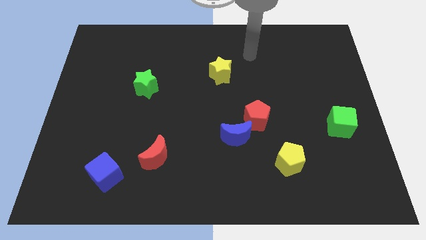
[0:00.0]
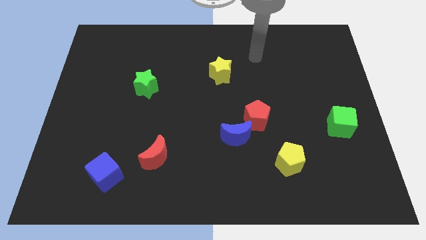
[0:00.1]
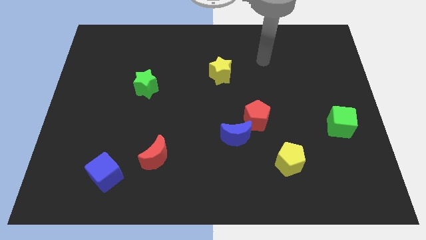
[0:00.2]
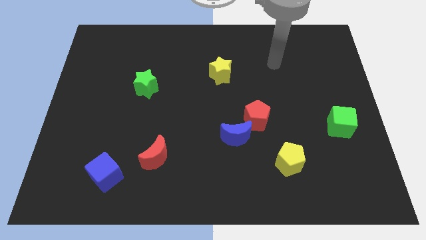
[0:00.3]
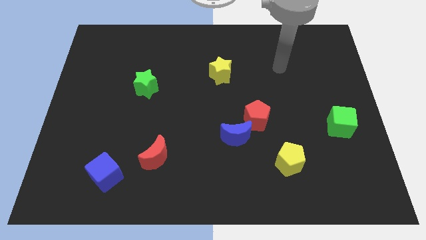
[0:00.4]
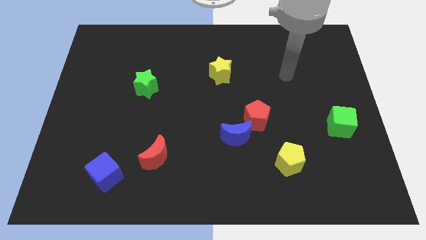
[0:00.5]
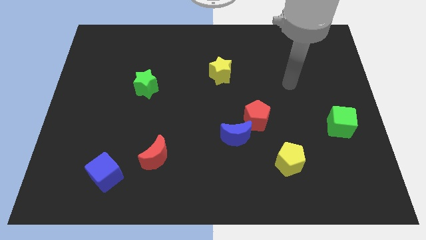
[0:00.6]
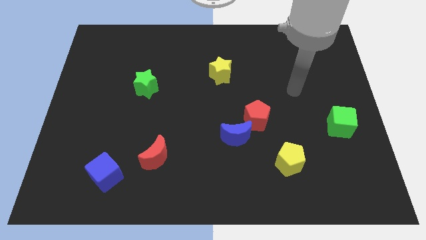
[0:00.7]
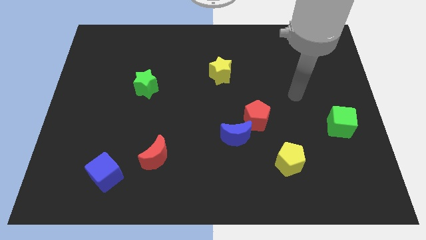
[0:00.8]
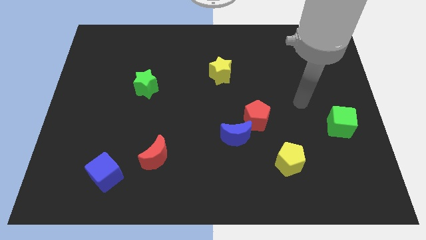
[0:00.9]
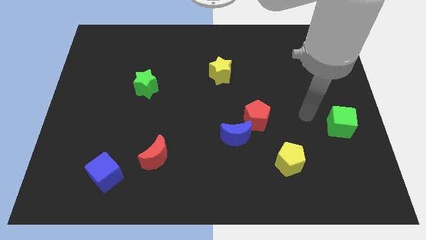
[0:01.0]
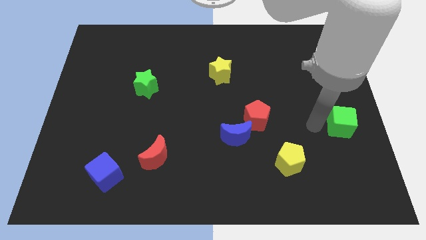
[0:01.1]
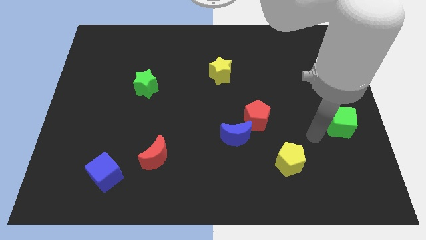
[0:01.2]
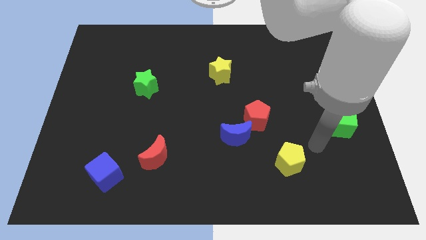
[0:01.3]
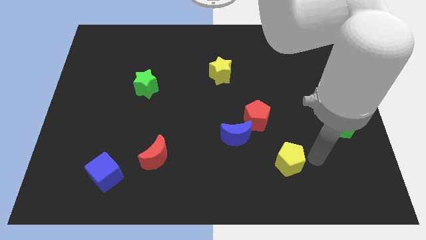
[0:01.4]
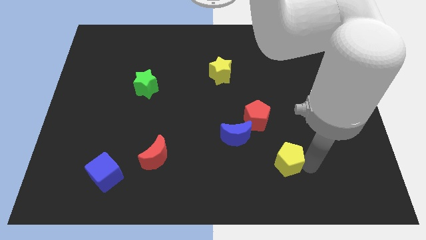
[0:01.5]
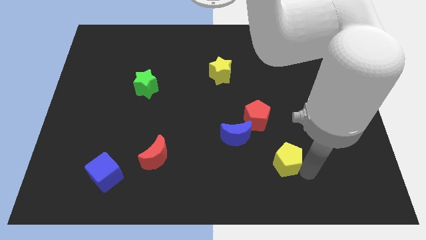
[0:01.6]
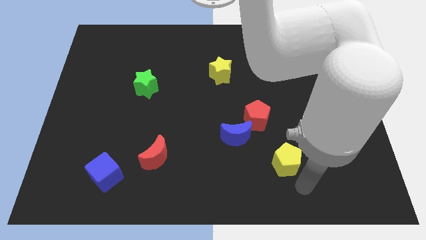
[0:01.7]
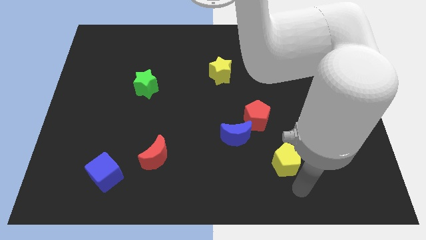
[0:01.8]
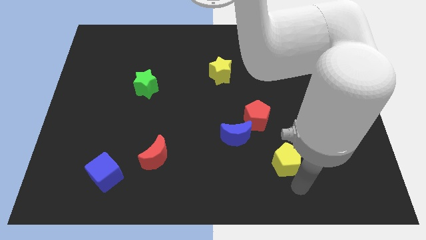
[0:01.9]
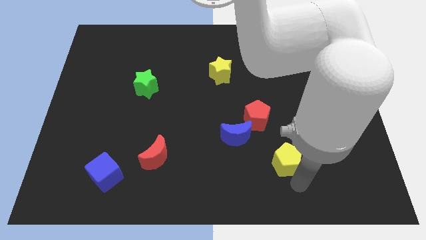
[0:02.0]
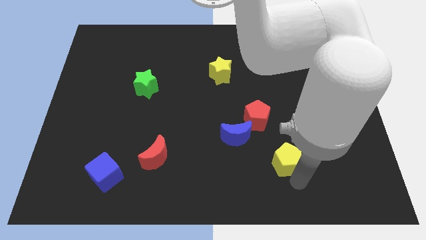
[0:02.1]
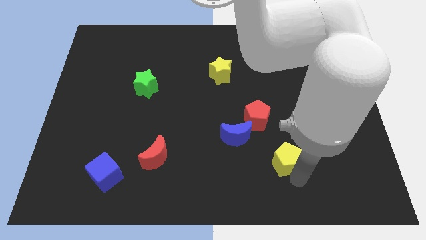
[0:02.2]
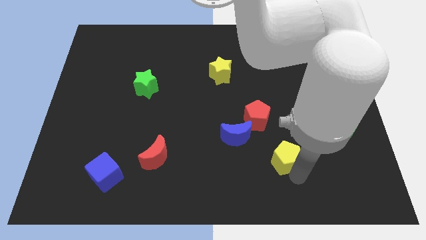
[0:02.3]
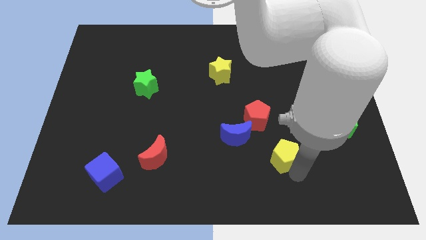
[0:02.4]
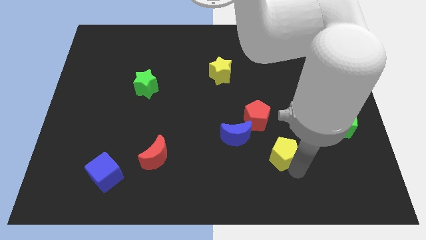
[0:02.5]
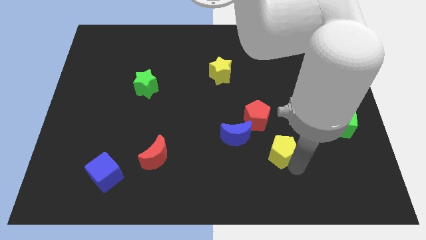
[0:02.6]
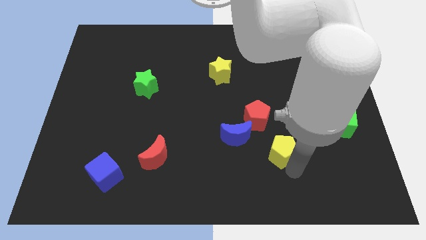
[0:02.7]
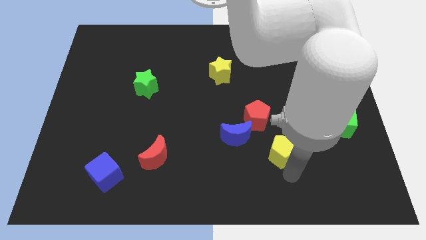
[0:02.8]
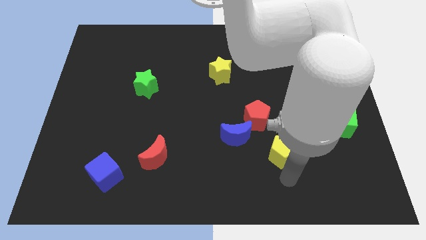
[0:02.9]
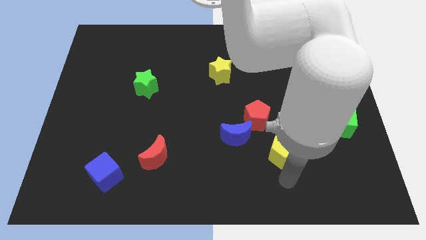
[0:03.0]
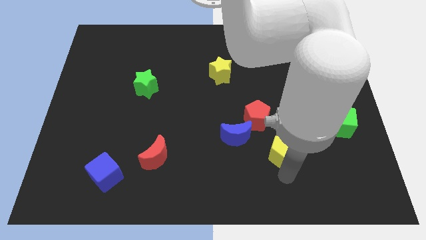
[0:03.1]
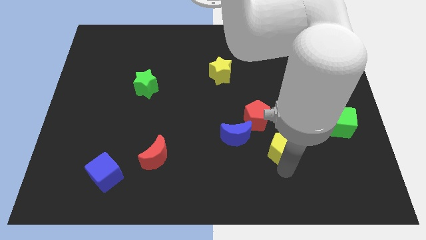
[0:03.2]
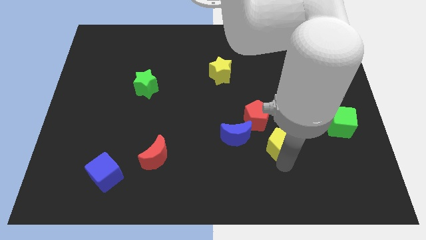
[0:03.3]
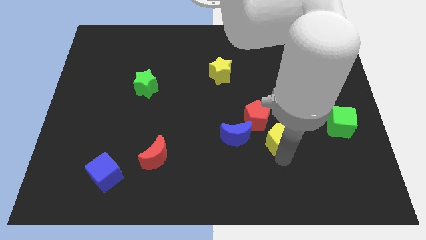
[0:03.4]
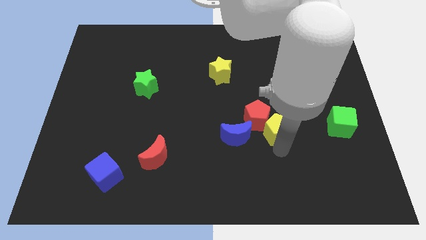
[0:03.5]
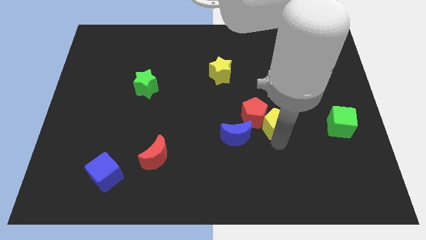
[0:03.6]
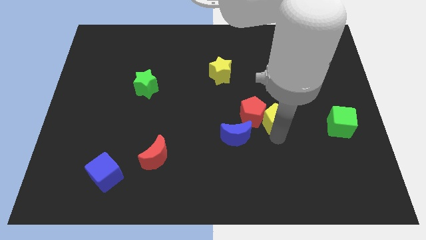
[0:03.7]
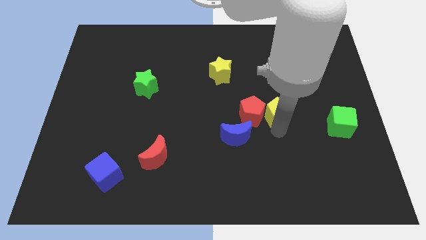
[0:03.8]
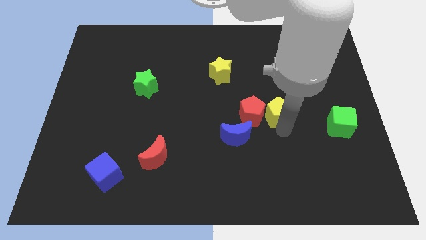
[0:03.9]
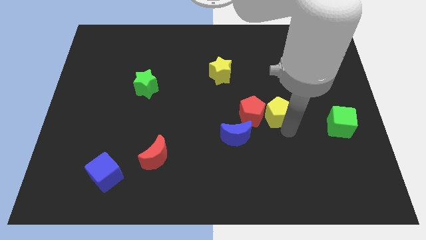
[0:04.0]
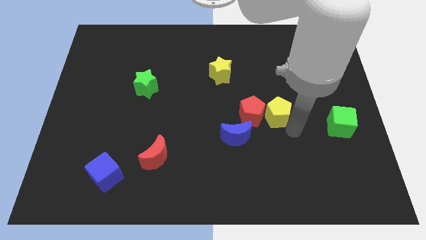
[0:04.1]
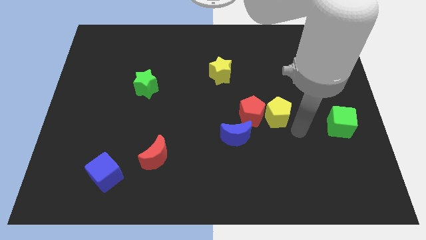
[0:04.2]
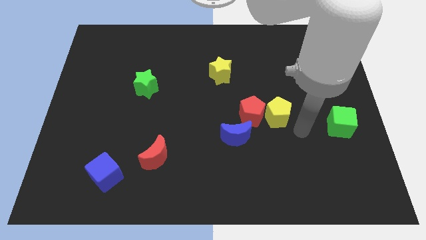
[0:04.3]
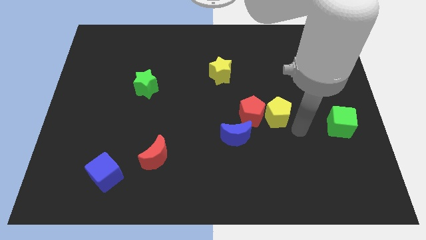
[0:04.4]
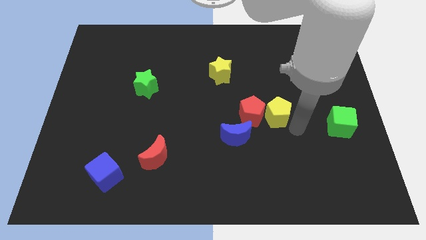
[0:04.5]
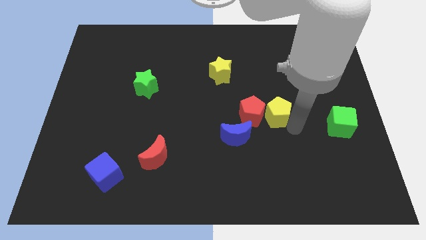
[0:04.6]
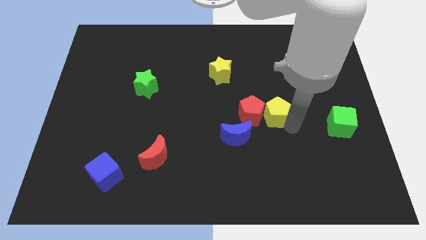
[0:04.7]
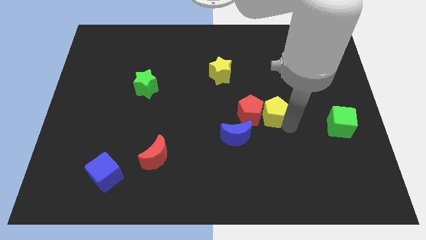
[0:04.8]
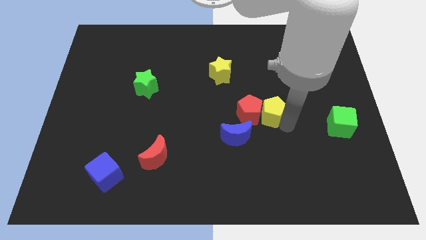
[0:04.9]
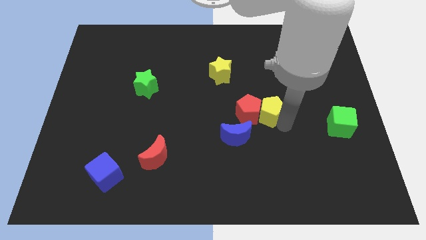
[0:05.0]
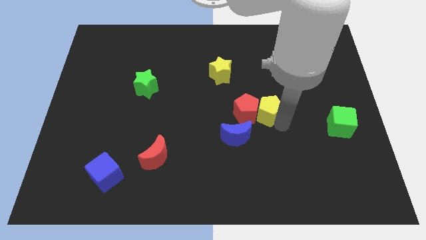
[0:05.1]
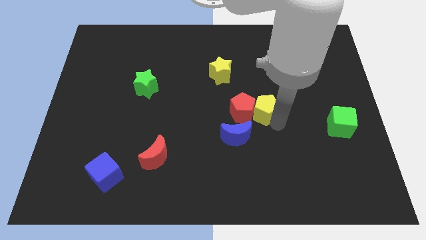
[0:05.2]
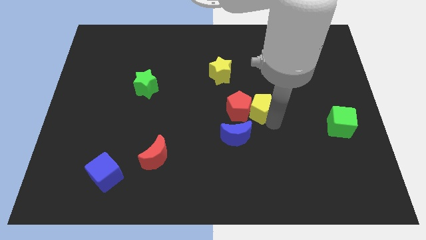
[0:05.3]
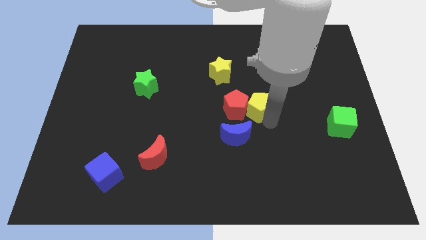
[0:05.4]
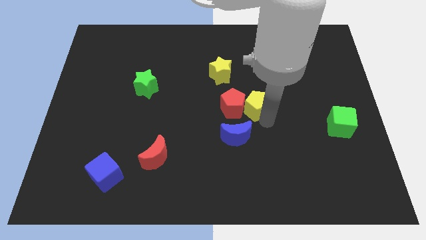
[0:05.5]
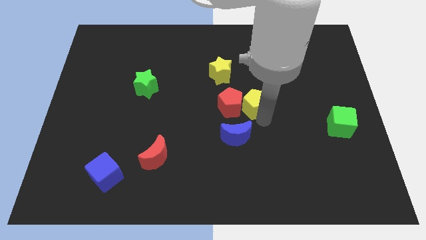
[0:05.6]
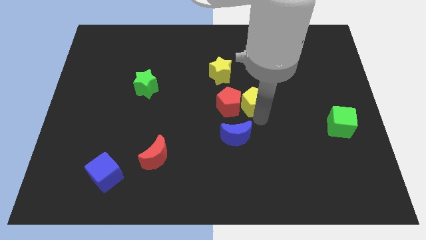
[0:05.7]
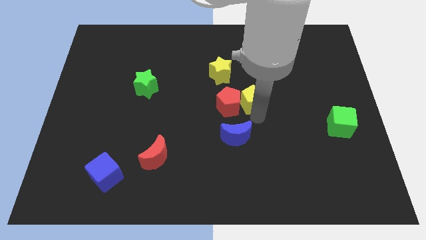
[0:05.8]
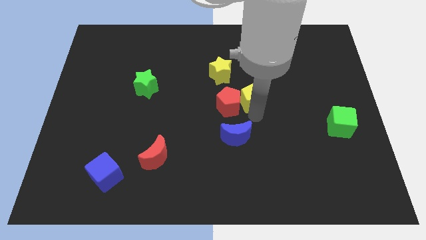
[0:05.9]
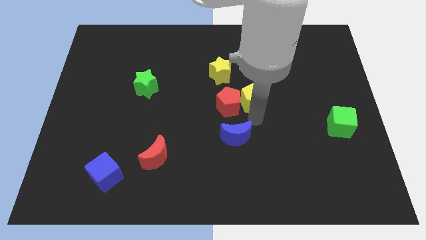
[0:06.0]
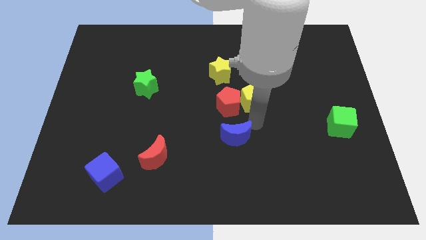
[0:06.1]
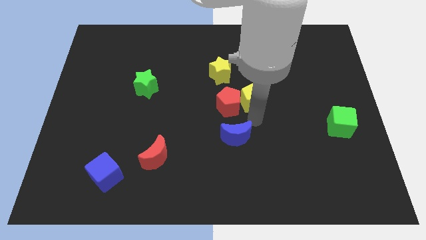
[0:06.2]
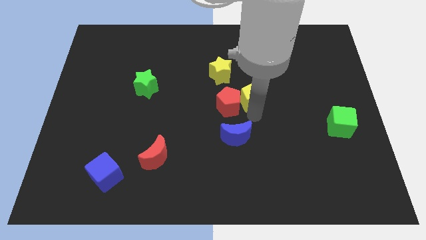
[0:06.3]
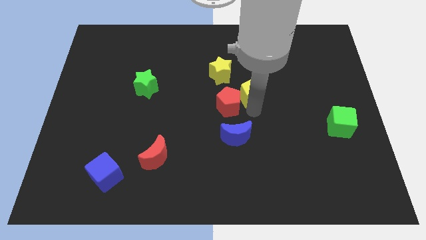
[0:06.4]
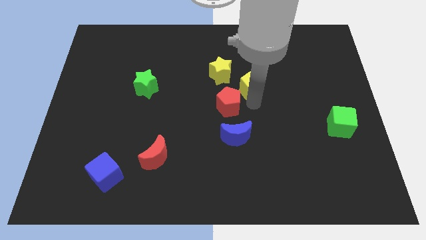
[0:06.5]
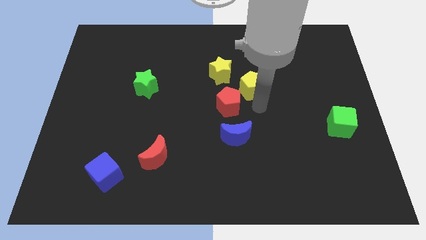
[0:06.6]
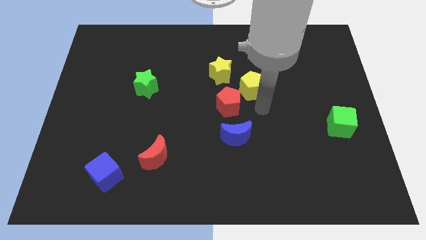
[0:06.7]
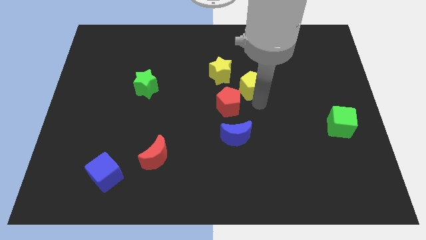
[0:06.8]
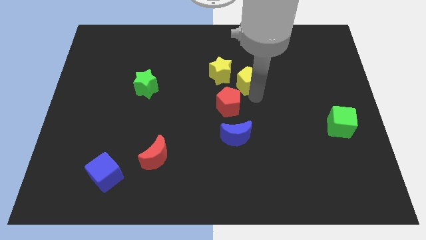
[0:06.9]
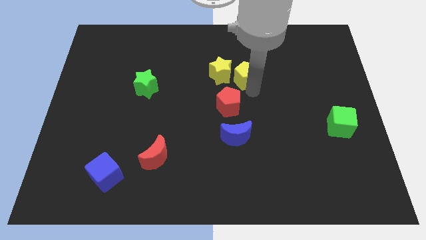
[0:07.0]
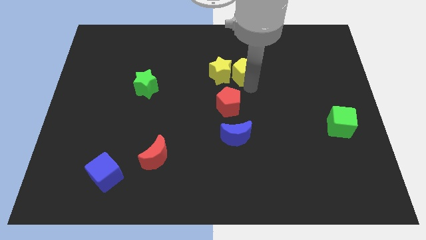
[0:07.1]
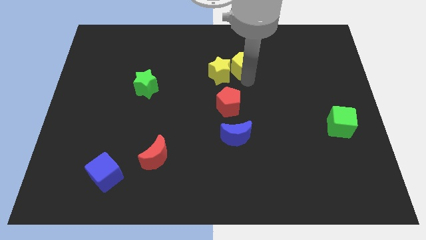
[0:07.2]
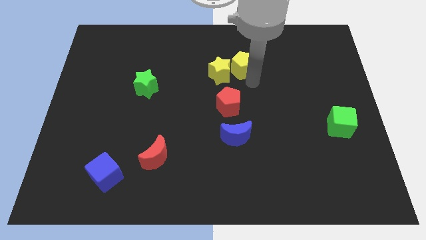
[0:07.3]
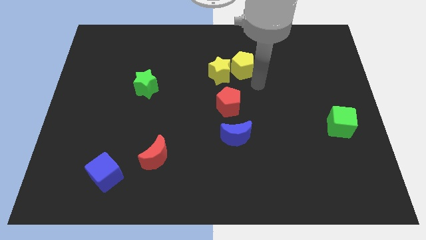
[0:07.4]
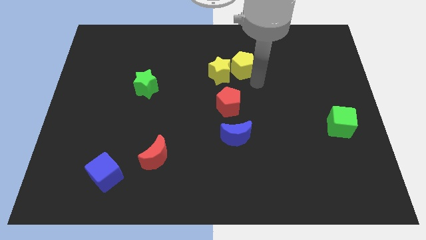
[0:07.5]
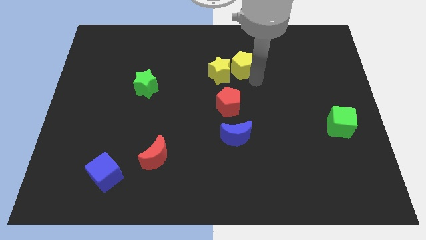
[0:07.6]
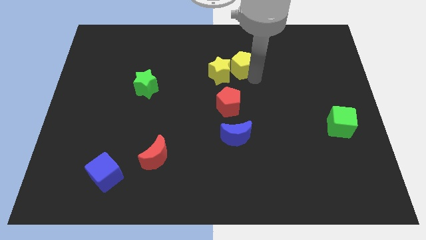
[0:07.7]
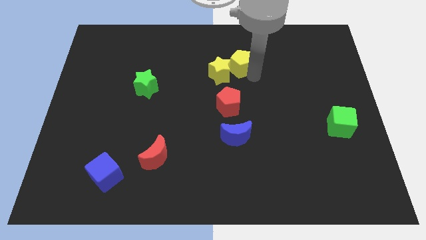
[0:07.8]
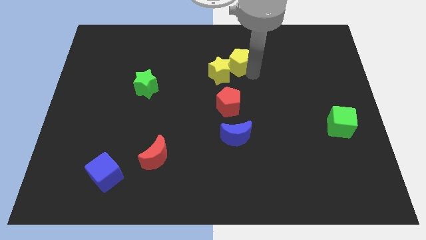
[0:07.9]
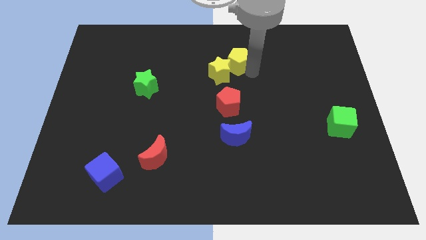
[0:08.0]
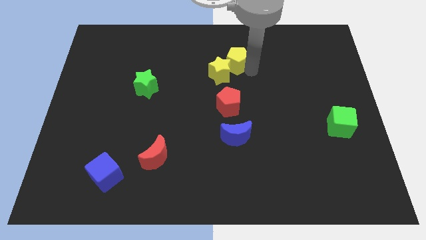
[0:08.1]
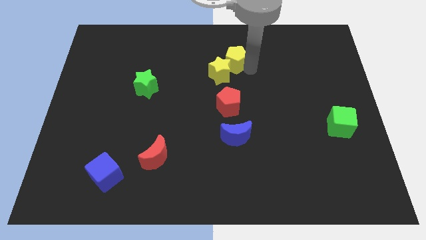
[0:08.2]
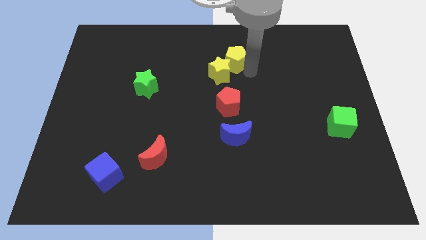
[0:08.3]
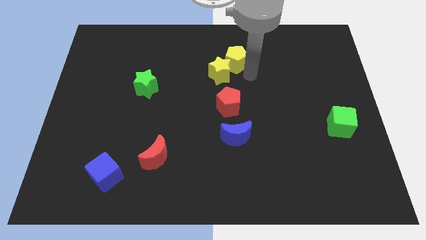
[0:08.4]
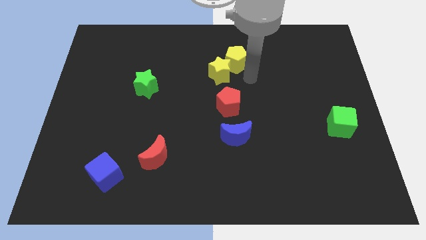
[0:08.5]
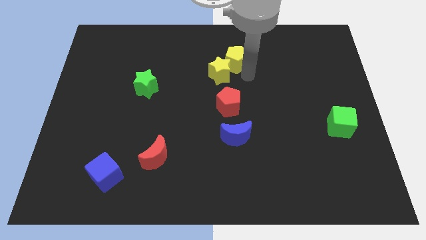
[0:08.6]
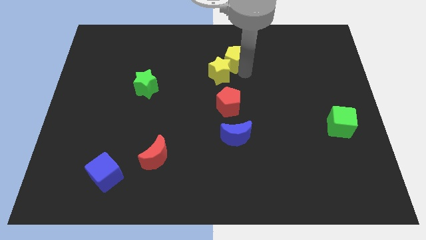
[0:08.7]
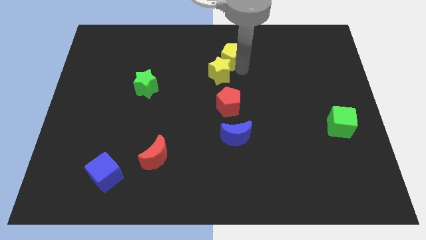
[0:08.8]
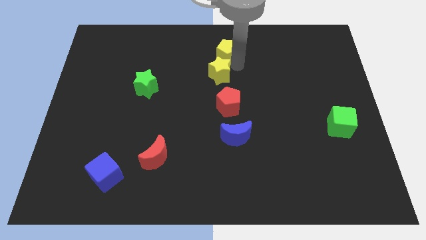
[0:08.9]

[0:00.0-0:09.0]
slide the yellow pentagon to the top
